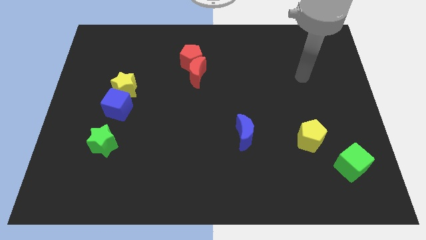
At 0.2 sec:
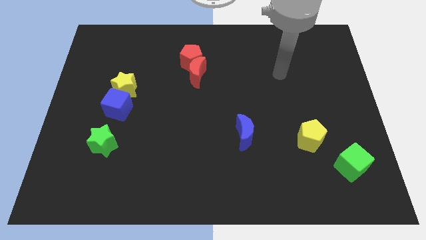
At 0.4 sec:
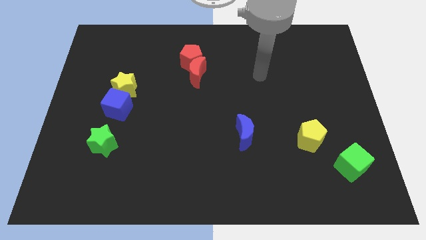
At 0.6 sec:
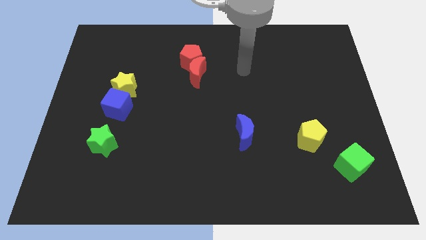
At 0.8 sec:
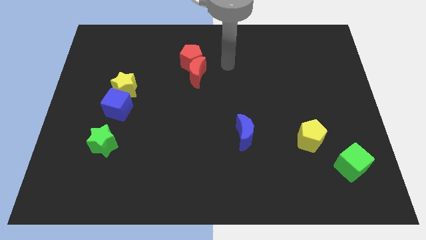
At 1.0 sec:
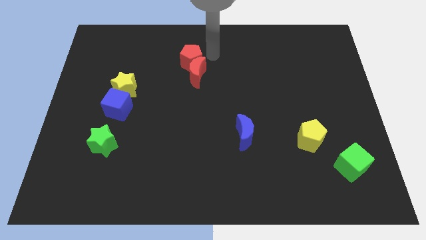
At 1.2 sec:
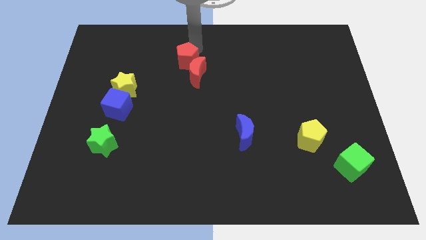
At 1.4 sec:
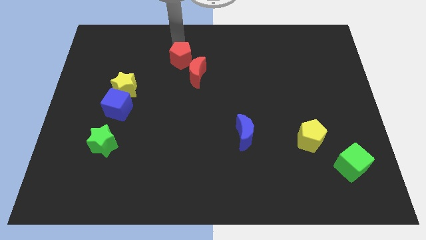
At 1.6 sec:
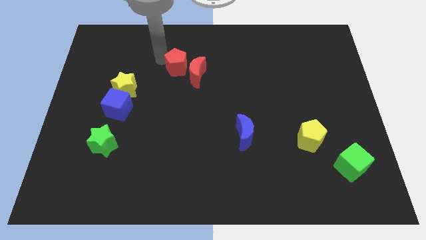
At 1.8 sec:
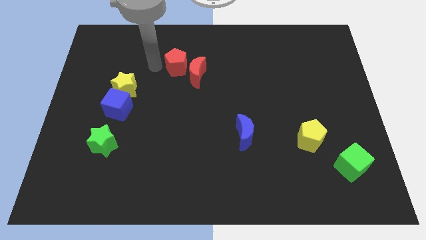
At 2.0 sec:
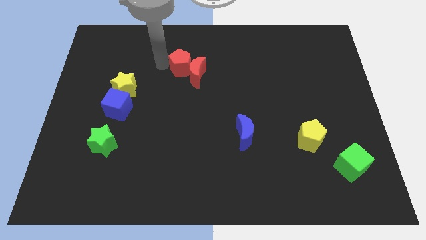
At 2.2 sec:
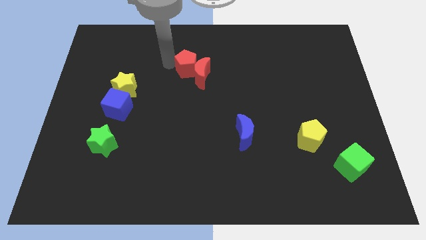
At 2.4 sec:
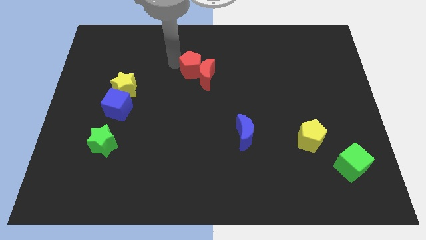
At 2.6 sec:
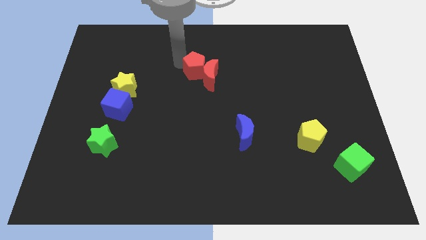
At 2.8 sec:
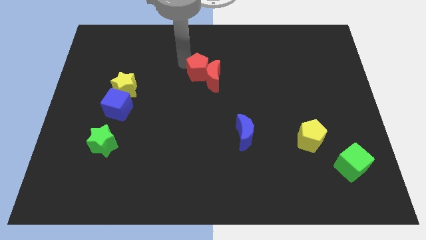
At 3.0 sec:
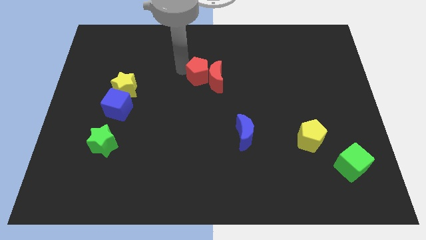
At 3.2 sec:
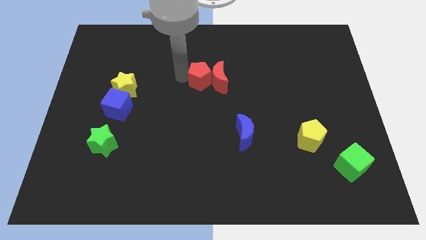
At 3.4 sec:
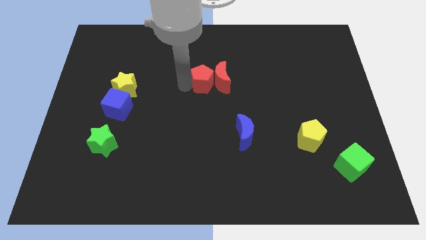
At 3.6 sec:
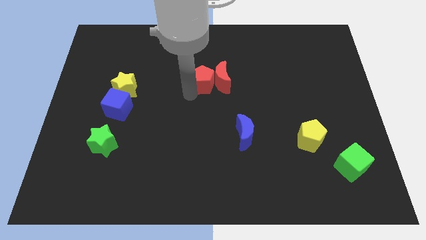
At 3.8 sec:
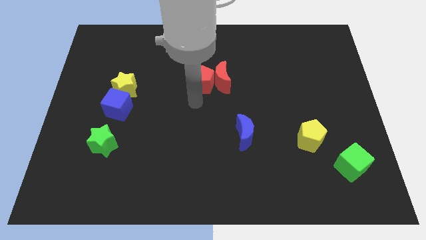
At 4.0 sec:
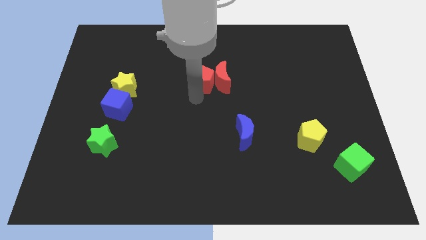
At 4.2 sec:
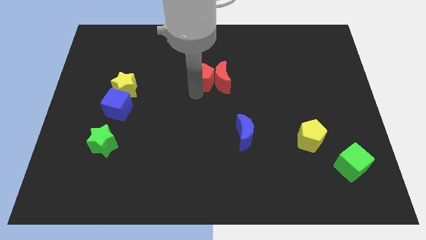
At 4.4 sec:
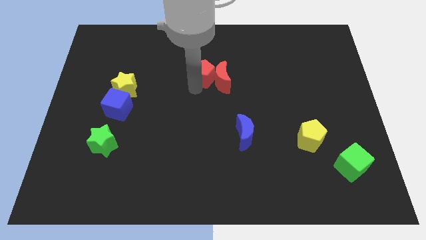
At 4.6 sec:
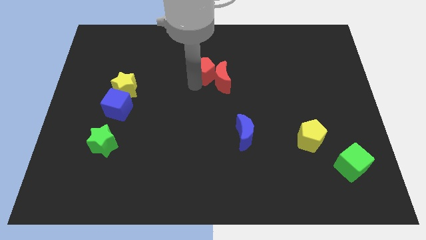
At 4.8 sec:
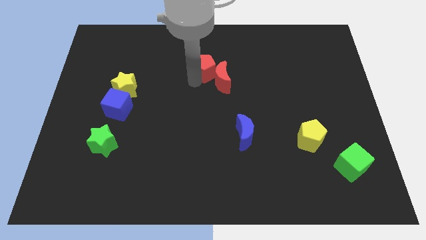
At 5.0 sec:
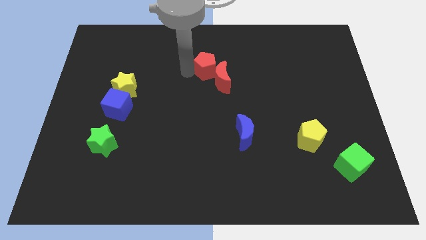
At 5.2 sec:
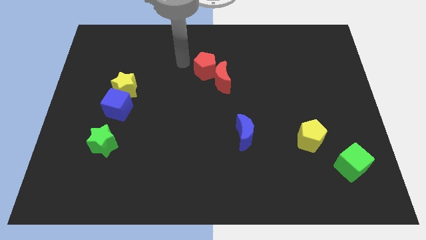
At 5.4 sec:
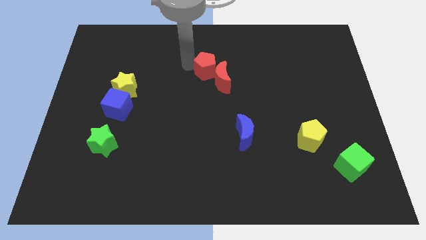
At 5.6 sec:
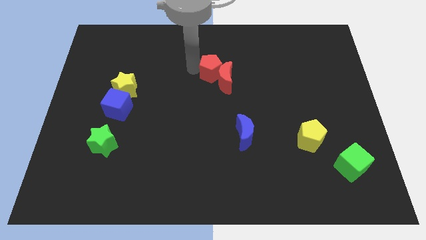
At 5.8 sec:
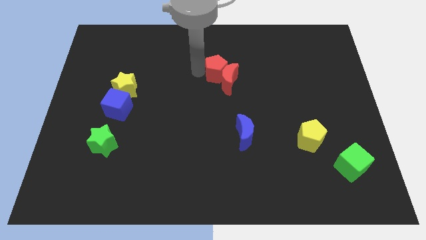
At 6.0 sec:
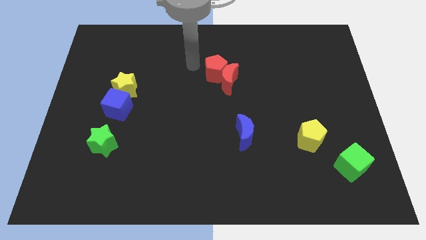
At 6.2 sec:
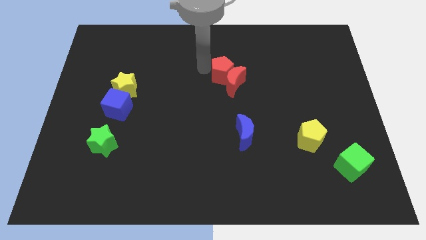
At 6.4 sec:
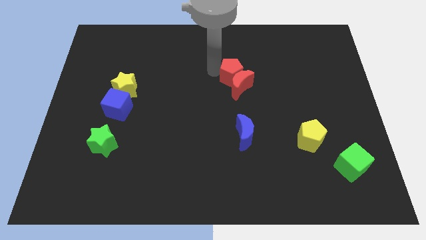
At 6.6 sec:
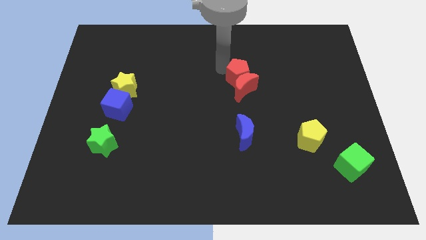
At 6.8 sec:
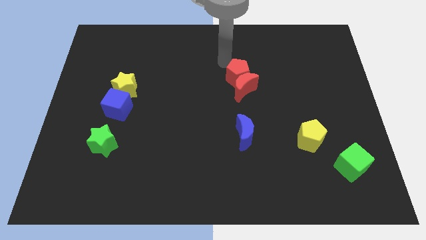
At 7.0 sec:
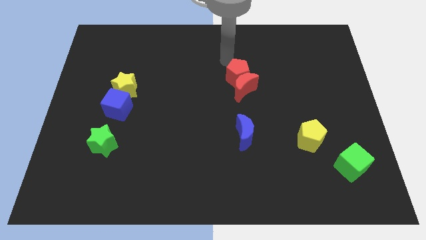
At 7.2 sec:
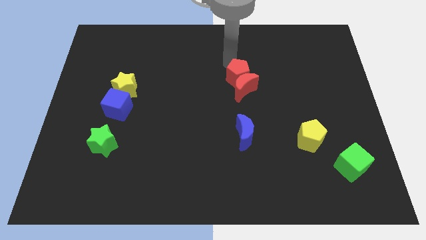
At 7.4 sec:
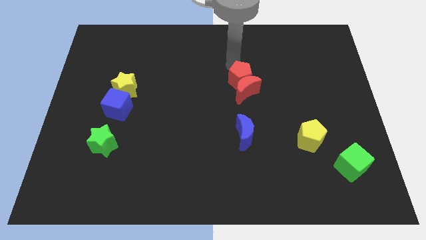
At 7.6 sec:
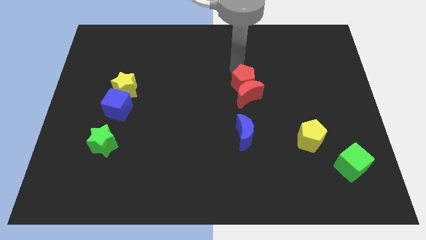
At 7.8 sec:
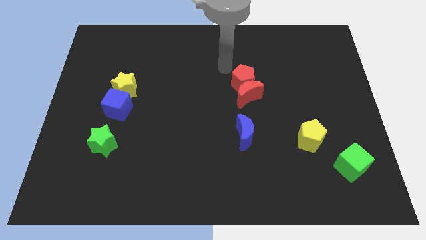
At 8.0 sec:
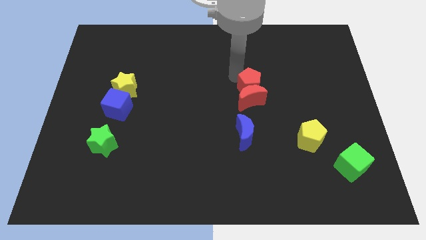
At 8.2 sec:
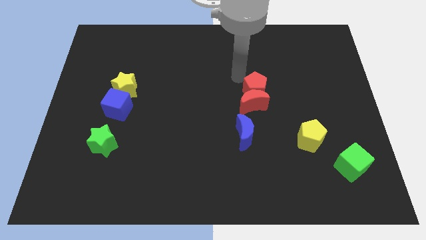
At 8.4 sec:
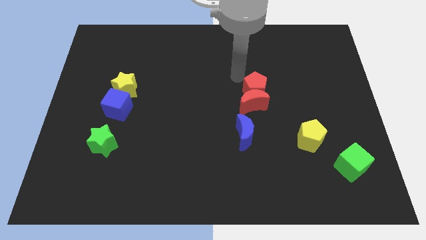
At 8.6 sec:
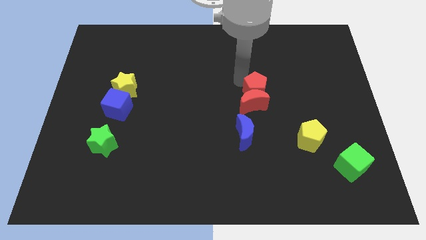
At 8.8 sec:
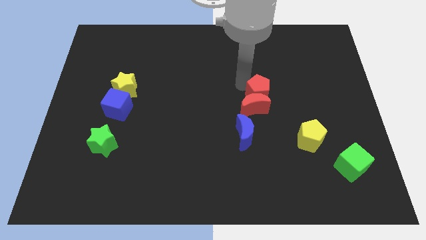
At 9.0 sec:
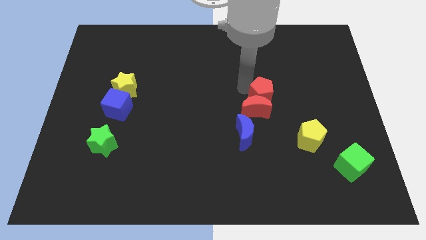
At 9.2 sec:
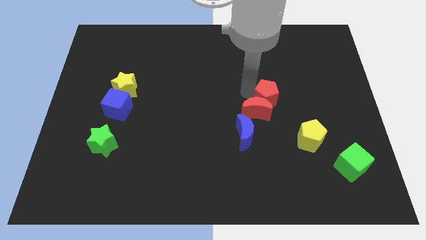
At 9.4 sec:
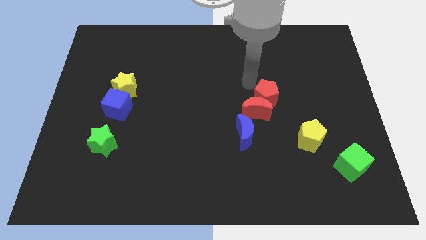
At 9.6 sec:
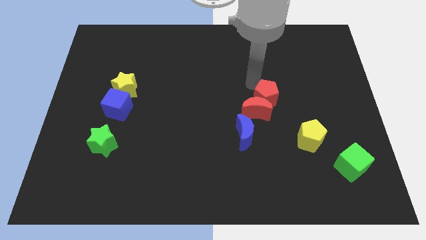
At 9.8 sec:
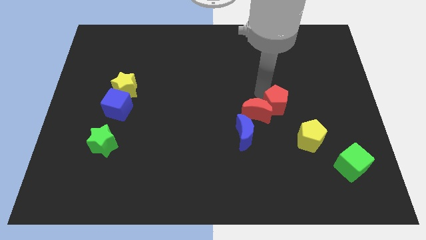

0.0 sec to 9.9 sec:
put the red pentagon to the top left of the yellow pentagon

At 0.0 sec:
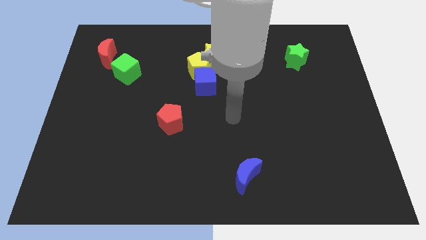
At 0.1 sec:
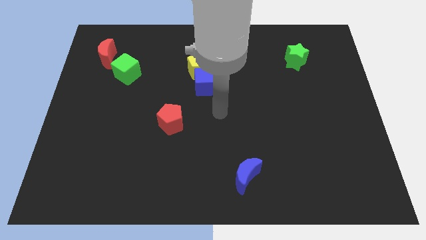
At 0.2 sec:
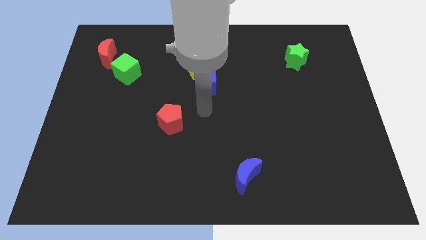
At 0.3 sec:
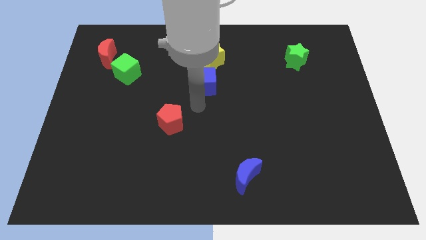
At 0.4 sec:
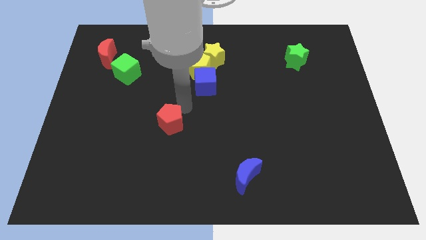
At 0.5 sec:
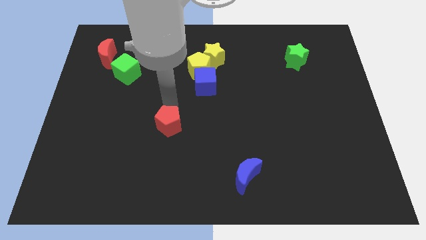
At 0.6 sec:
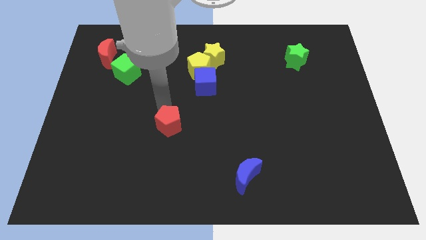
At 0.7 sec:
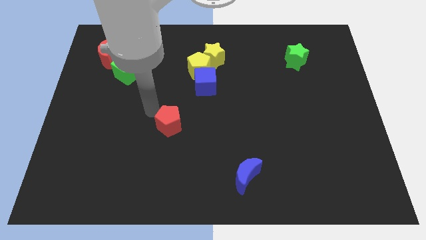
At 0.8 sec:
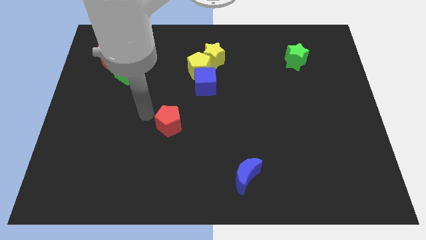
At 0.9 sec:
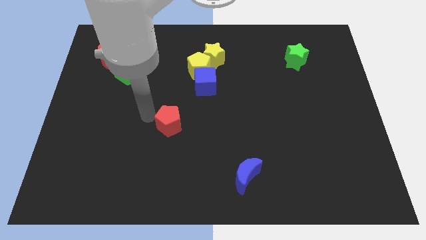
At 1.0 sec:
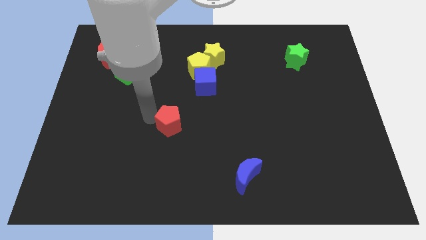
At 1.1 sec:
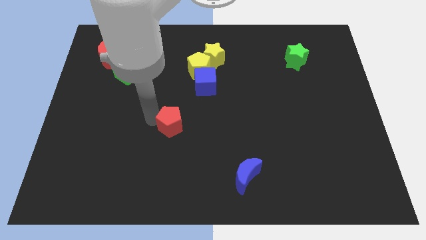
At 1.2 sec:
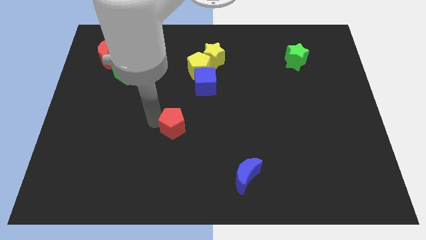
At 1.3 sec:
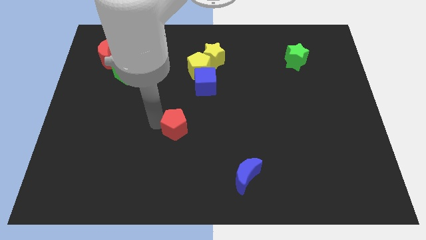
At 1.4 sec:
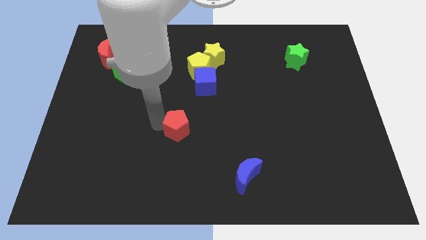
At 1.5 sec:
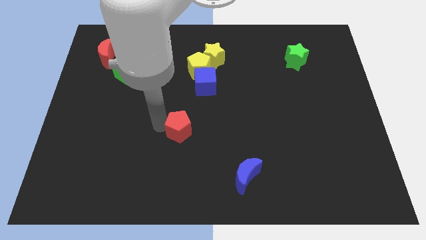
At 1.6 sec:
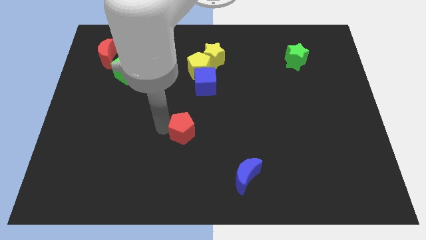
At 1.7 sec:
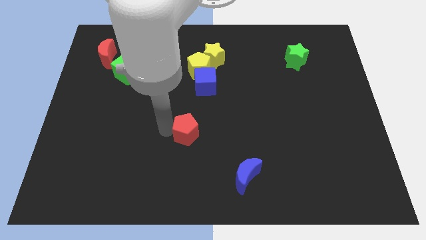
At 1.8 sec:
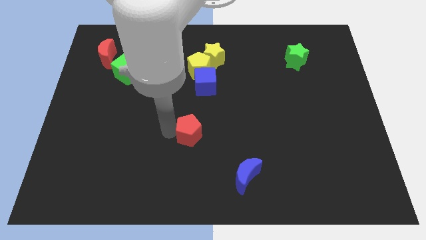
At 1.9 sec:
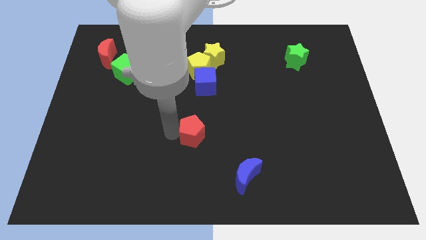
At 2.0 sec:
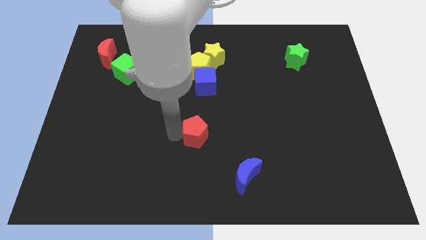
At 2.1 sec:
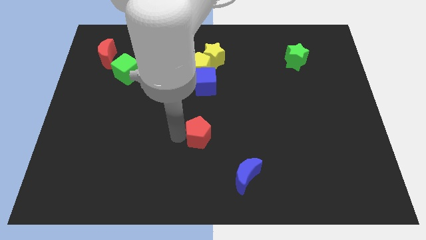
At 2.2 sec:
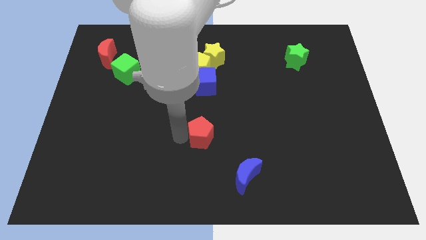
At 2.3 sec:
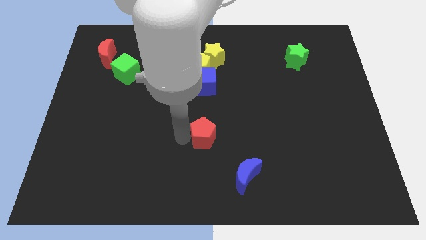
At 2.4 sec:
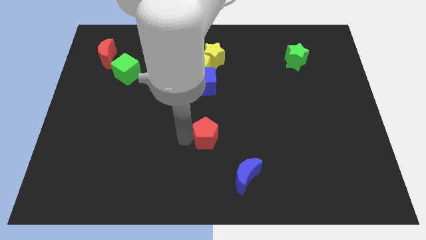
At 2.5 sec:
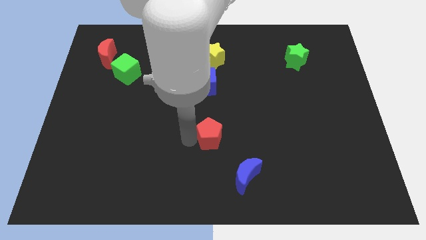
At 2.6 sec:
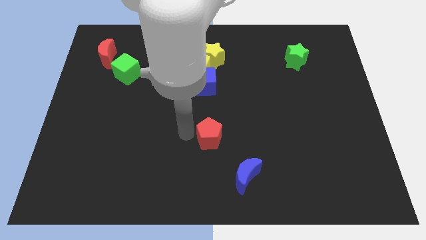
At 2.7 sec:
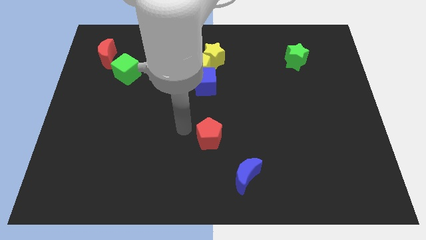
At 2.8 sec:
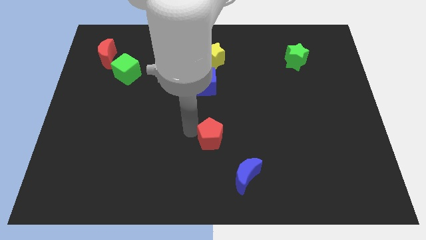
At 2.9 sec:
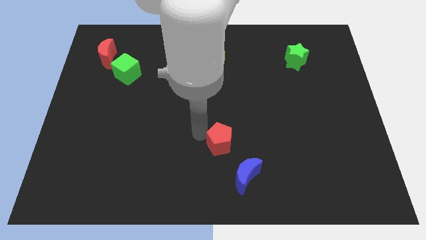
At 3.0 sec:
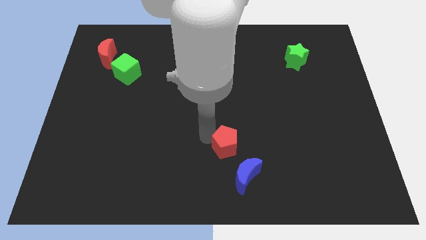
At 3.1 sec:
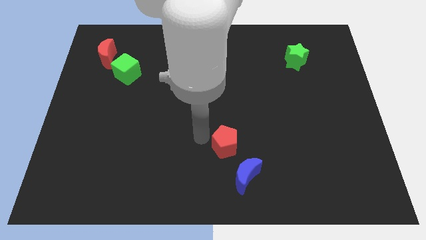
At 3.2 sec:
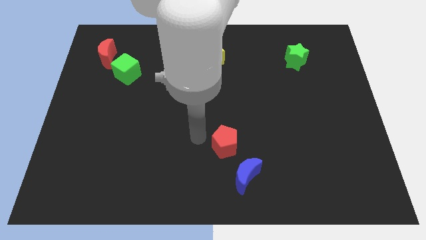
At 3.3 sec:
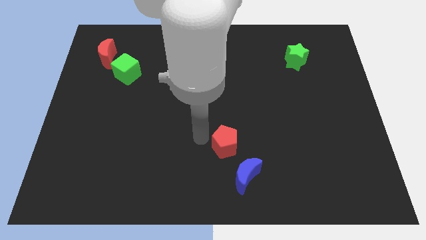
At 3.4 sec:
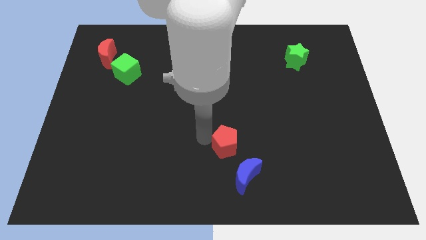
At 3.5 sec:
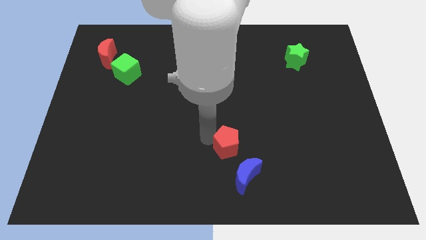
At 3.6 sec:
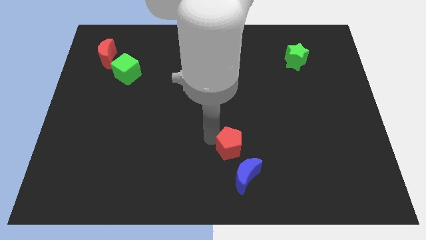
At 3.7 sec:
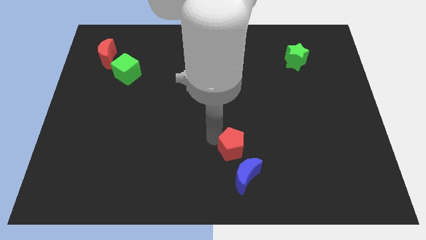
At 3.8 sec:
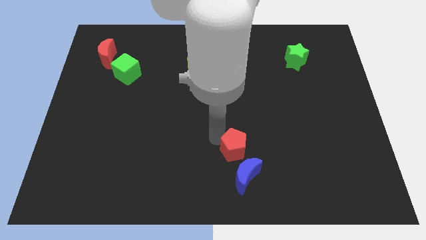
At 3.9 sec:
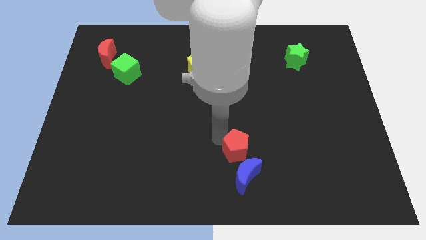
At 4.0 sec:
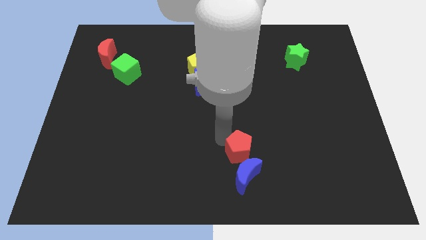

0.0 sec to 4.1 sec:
put the red pentagon to the top right of the blue moon
